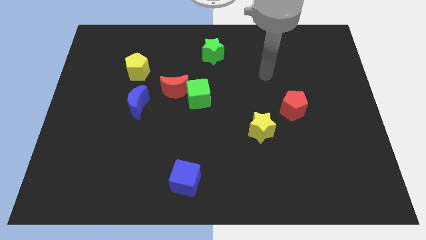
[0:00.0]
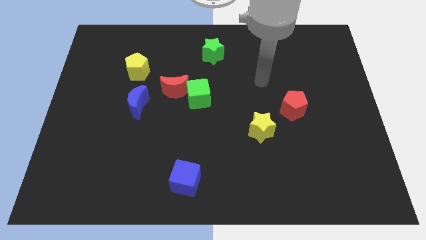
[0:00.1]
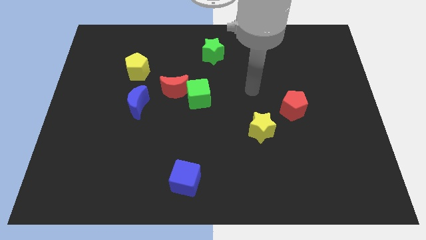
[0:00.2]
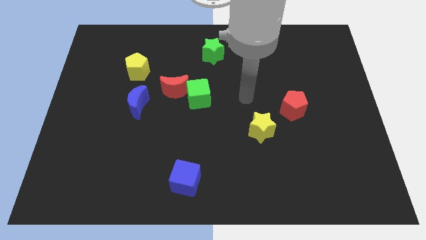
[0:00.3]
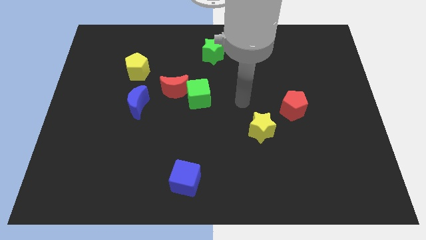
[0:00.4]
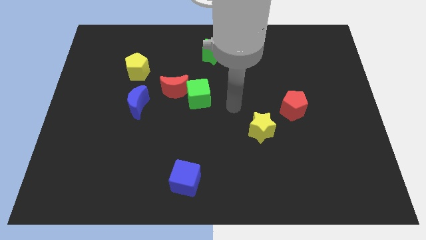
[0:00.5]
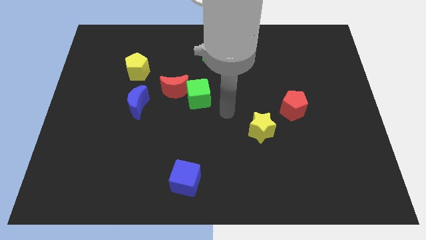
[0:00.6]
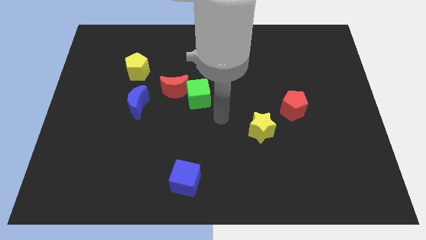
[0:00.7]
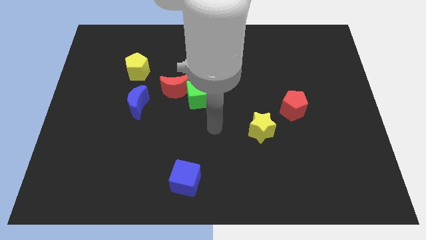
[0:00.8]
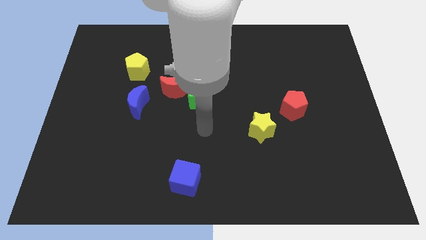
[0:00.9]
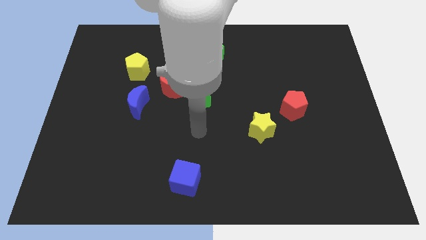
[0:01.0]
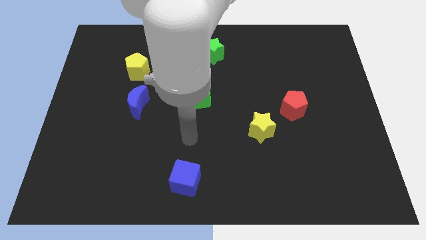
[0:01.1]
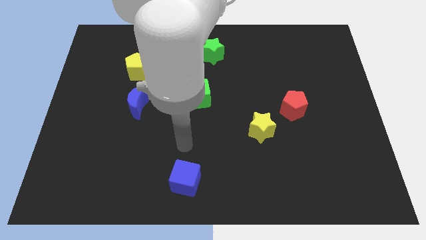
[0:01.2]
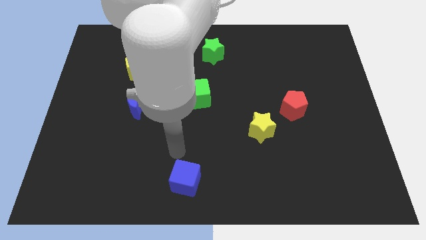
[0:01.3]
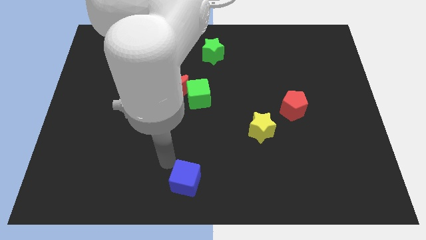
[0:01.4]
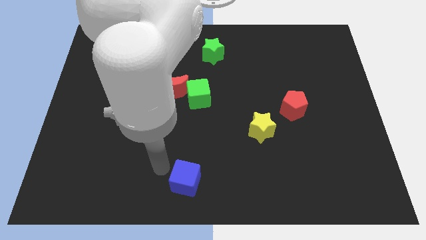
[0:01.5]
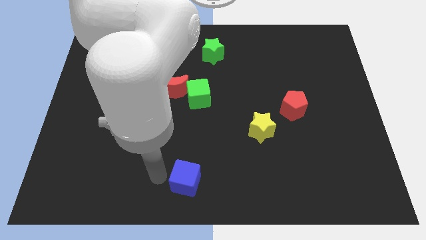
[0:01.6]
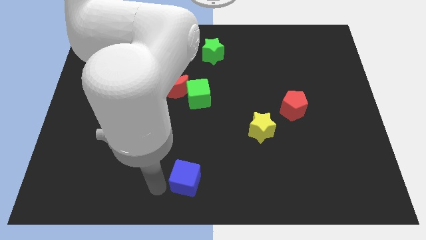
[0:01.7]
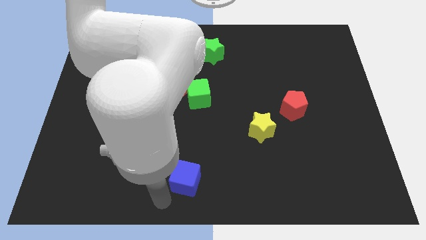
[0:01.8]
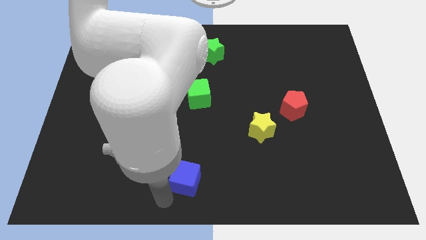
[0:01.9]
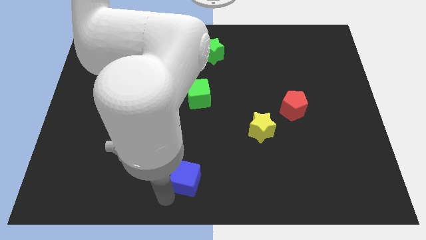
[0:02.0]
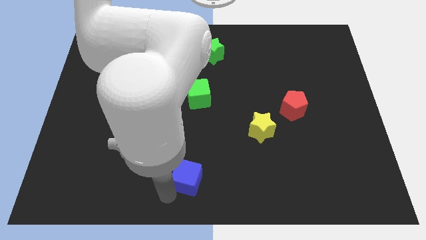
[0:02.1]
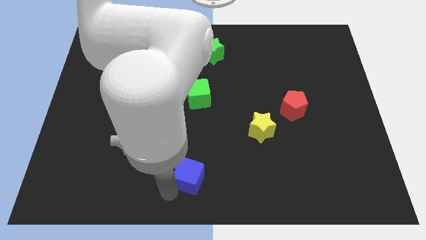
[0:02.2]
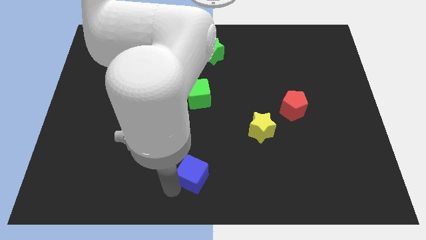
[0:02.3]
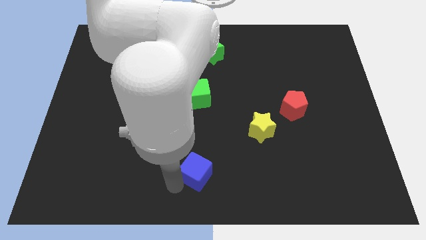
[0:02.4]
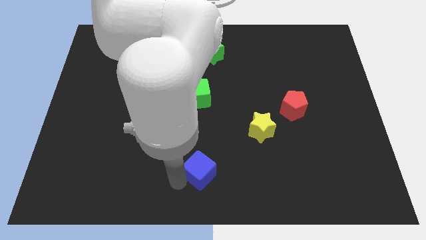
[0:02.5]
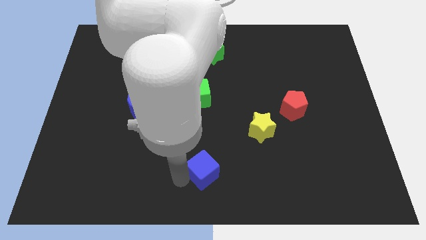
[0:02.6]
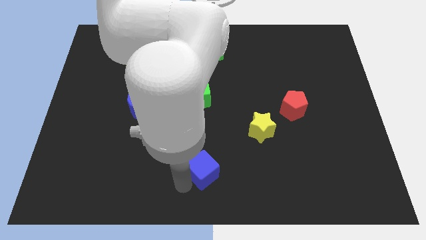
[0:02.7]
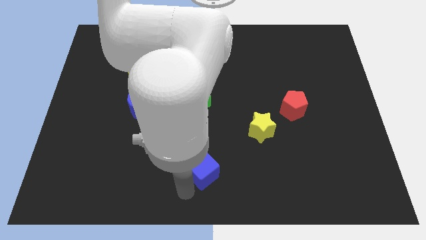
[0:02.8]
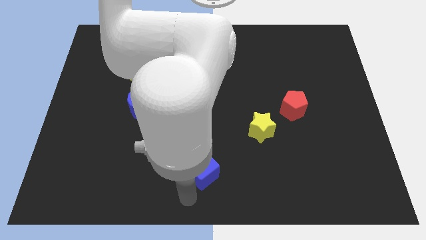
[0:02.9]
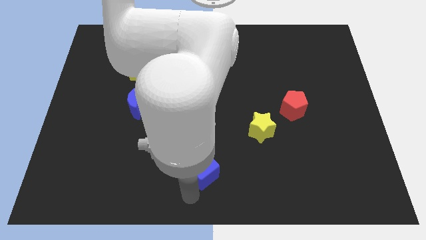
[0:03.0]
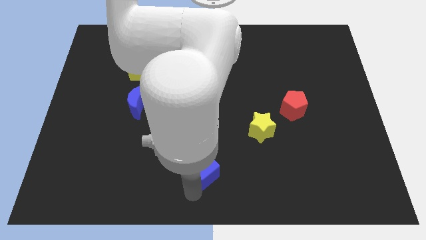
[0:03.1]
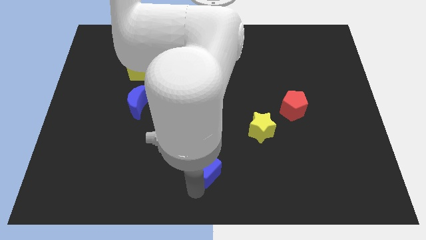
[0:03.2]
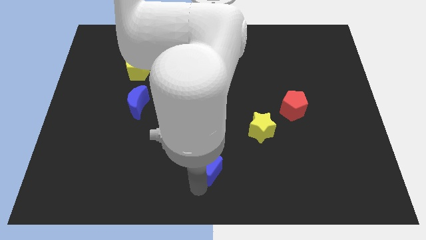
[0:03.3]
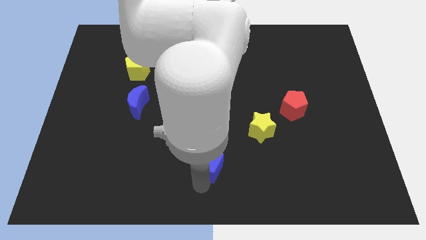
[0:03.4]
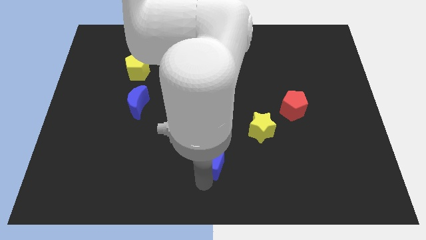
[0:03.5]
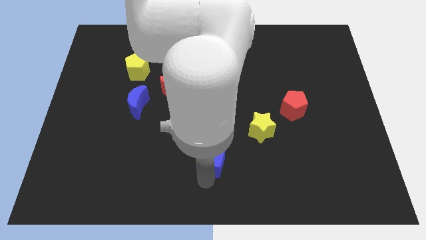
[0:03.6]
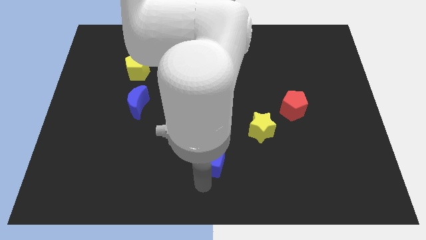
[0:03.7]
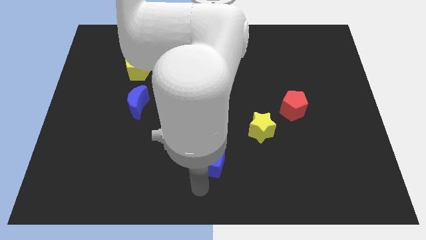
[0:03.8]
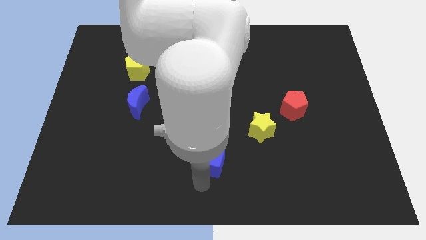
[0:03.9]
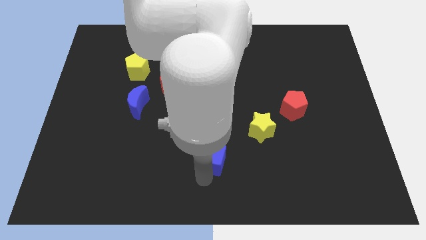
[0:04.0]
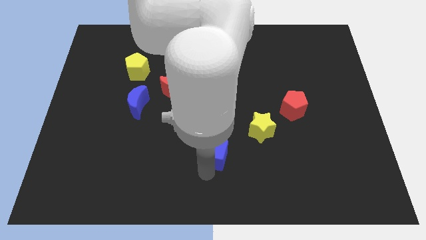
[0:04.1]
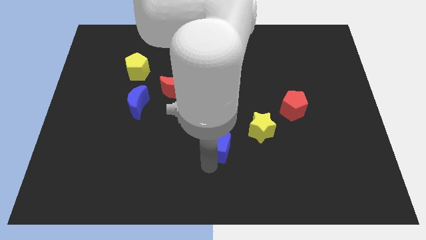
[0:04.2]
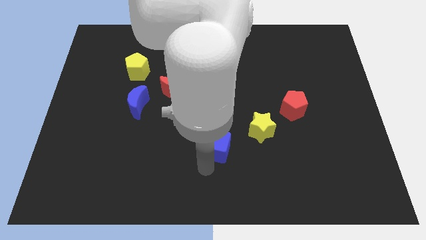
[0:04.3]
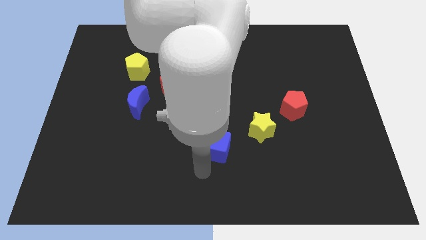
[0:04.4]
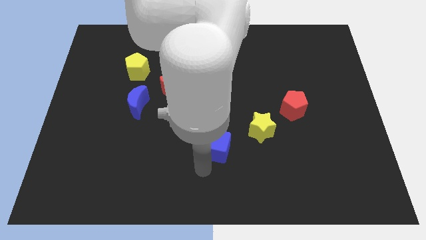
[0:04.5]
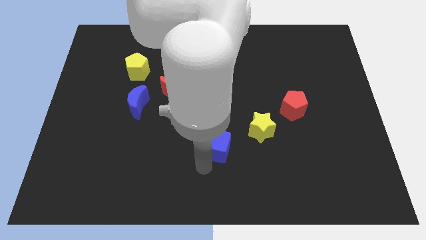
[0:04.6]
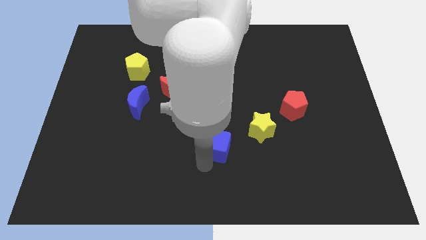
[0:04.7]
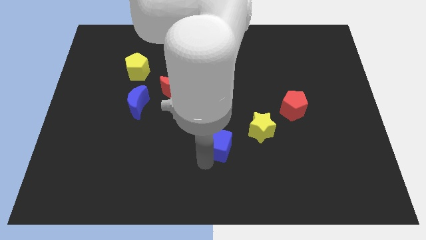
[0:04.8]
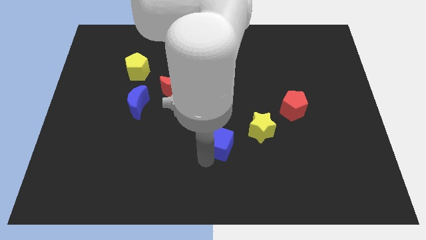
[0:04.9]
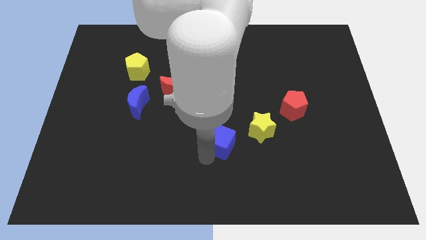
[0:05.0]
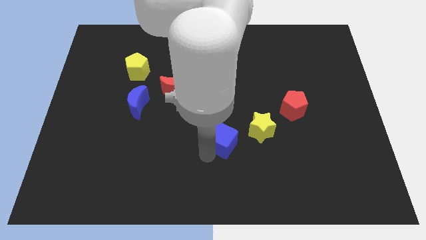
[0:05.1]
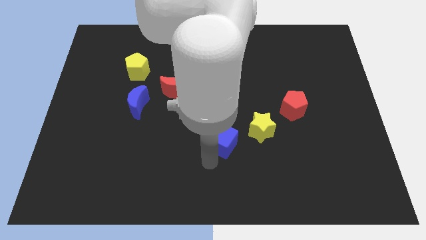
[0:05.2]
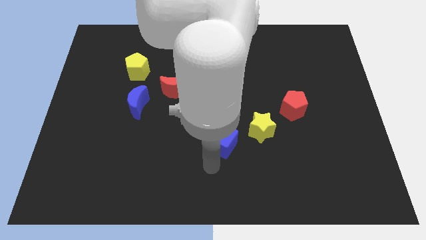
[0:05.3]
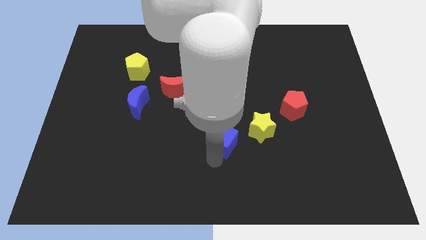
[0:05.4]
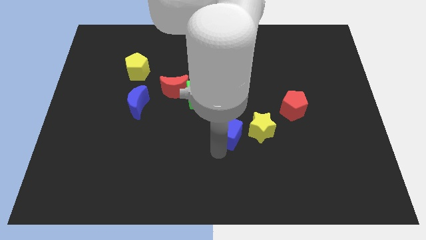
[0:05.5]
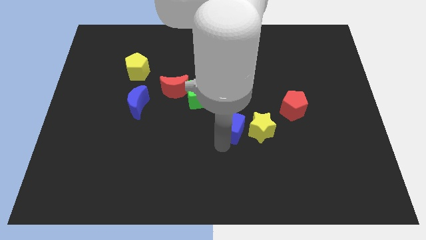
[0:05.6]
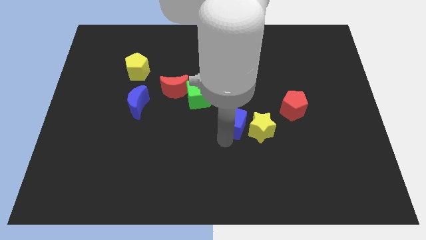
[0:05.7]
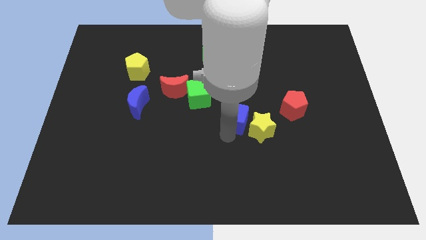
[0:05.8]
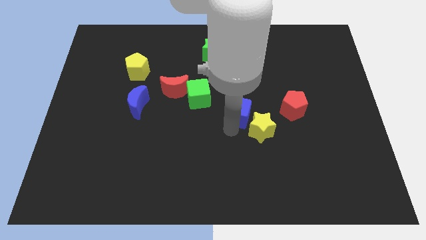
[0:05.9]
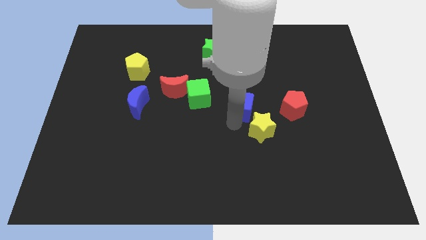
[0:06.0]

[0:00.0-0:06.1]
push the blue cube right of the green cube

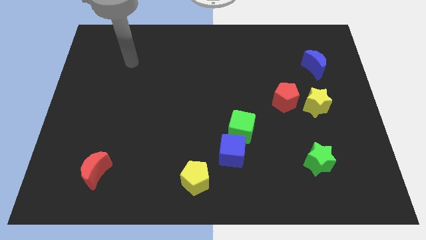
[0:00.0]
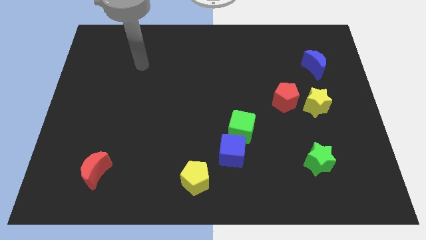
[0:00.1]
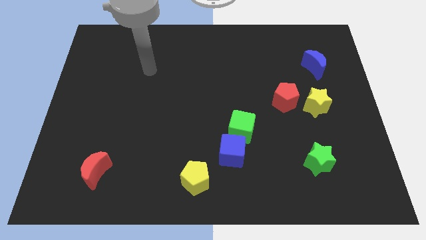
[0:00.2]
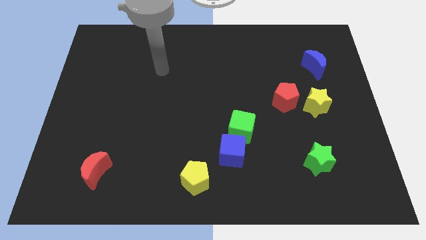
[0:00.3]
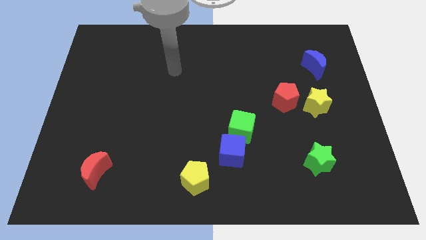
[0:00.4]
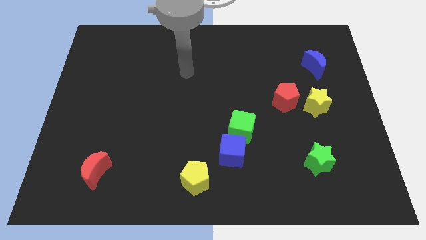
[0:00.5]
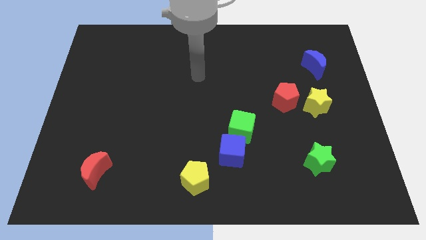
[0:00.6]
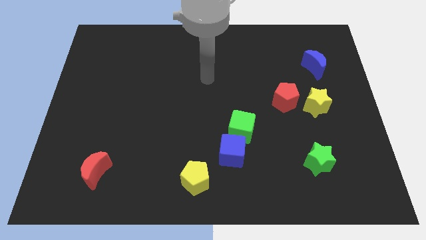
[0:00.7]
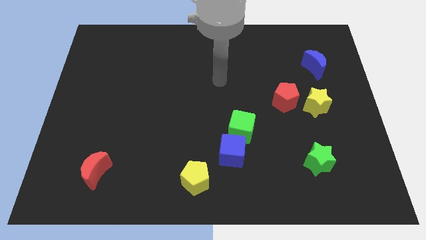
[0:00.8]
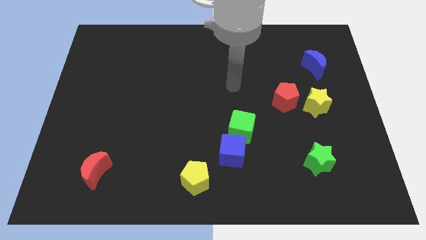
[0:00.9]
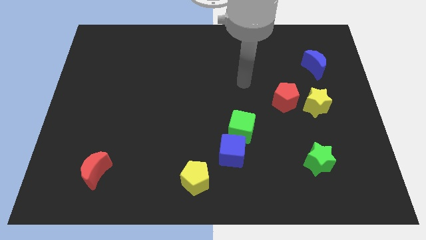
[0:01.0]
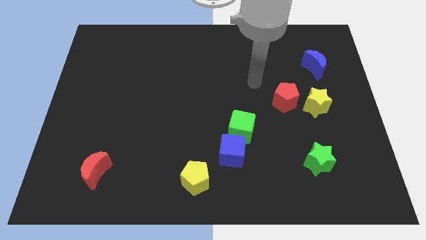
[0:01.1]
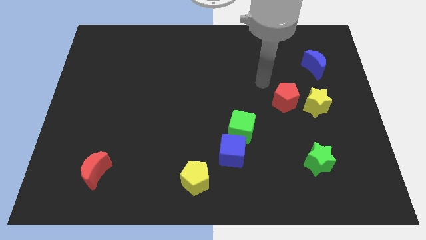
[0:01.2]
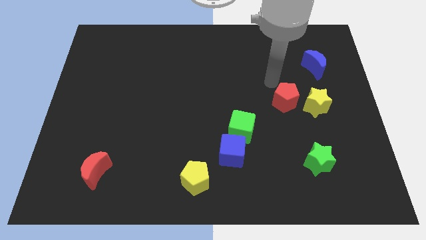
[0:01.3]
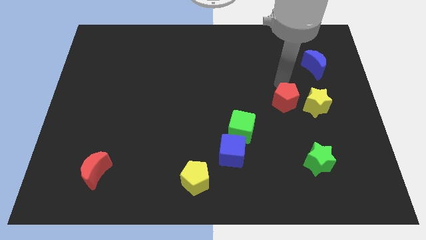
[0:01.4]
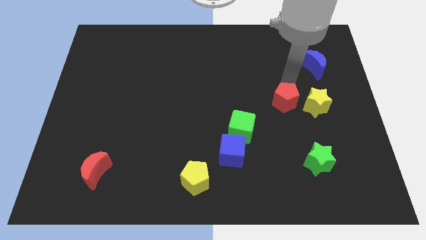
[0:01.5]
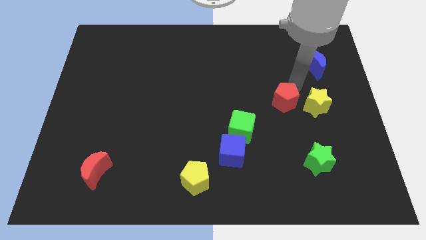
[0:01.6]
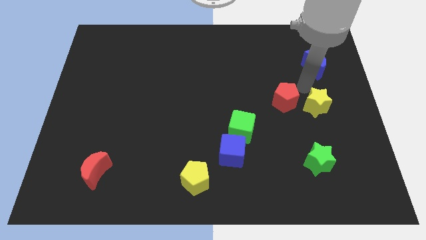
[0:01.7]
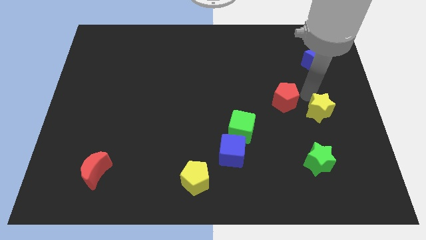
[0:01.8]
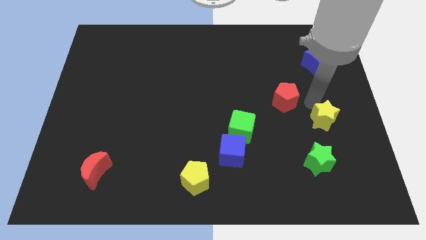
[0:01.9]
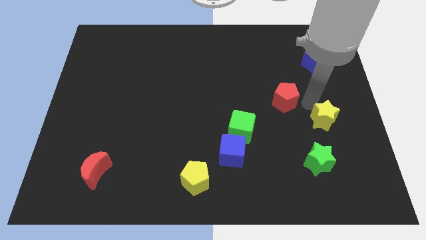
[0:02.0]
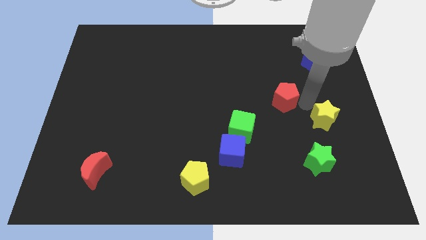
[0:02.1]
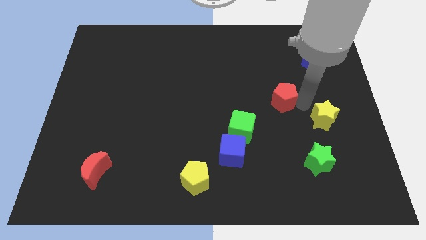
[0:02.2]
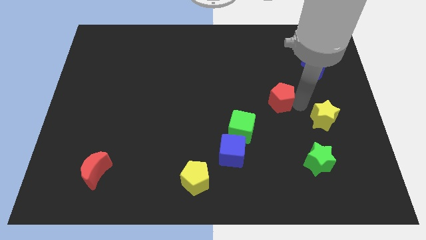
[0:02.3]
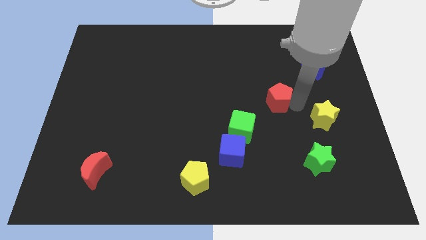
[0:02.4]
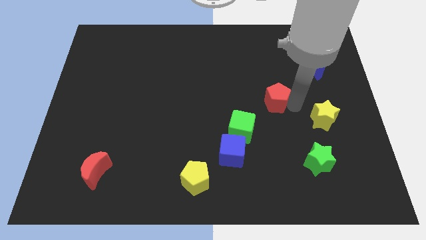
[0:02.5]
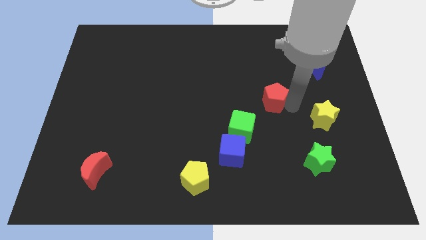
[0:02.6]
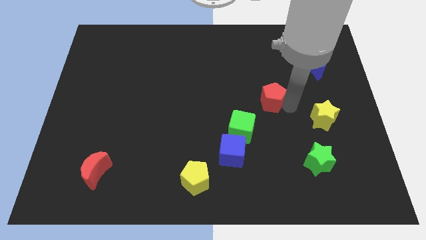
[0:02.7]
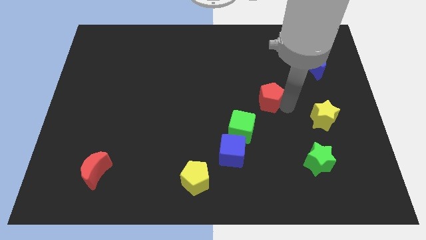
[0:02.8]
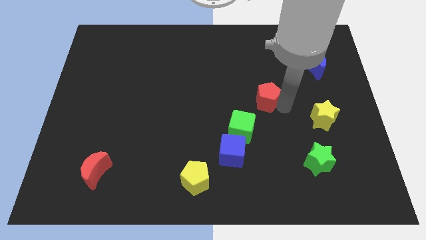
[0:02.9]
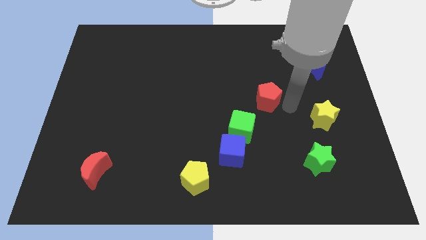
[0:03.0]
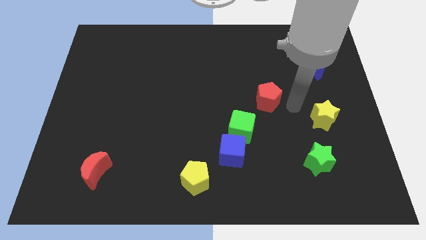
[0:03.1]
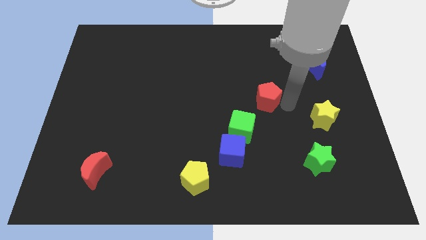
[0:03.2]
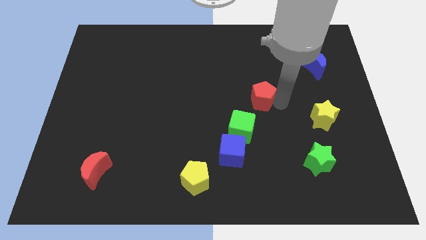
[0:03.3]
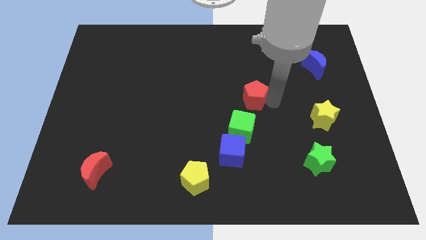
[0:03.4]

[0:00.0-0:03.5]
slide the red pentagon to the top side of the green cube
